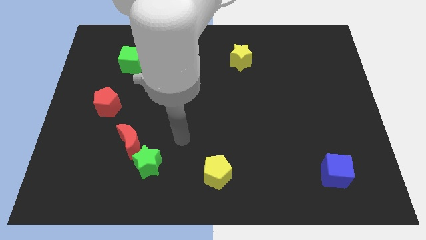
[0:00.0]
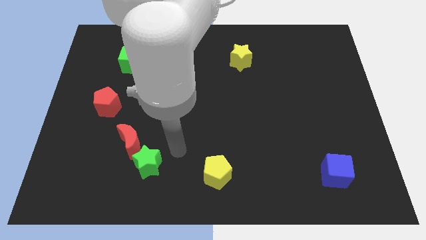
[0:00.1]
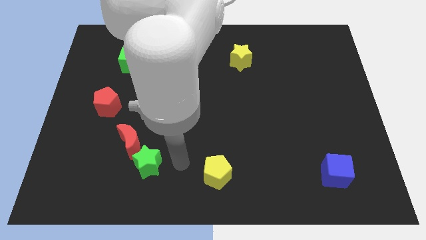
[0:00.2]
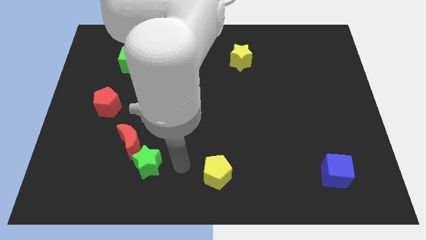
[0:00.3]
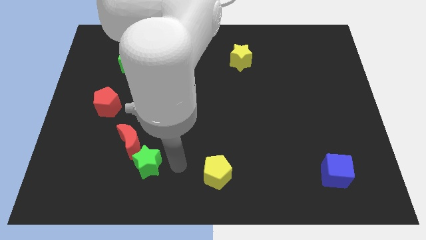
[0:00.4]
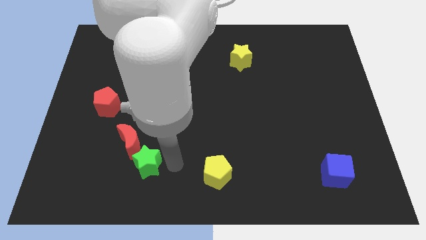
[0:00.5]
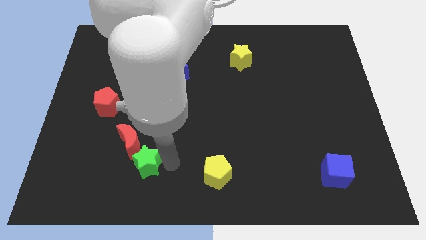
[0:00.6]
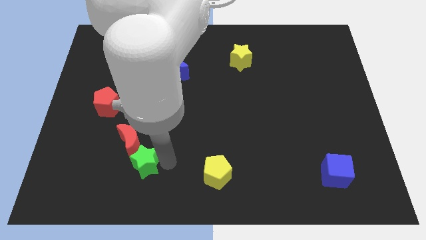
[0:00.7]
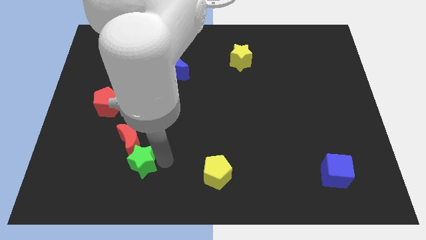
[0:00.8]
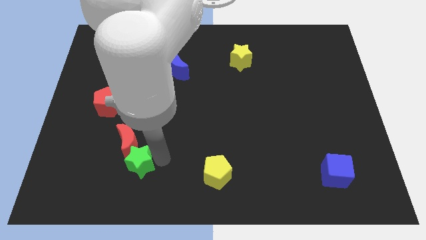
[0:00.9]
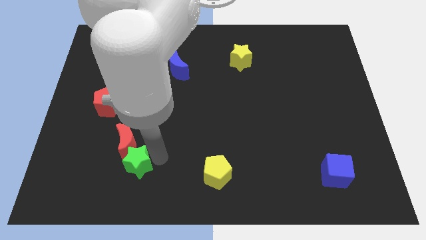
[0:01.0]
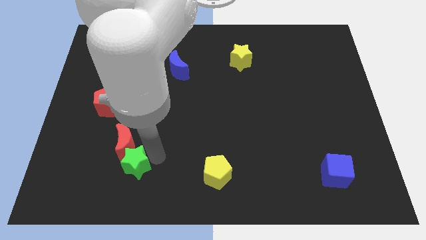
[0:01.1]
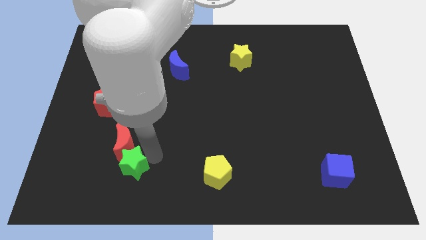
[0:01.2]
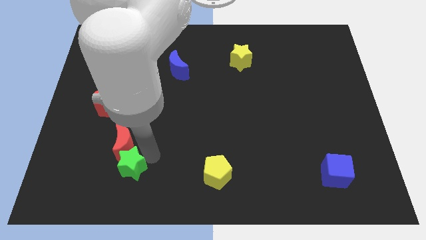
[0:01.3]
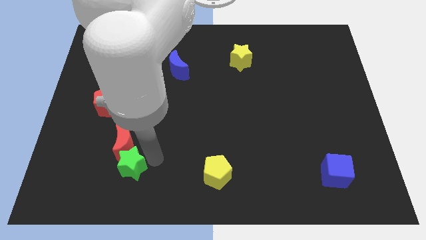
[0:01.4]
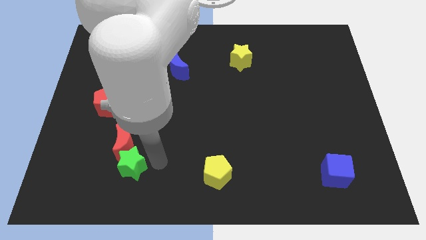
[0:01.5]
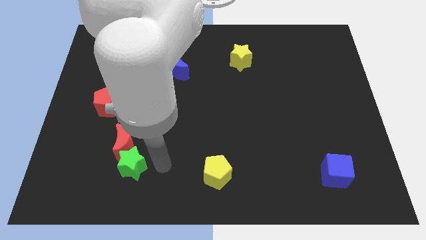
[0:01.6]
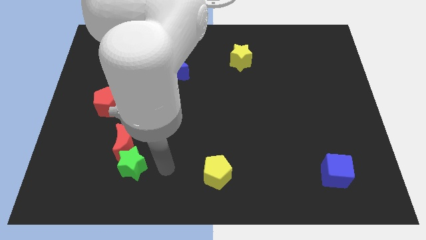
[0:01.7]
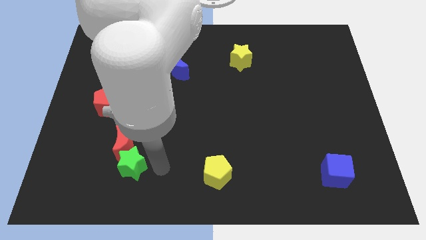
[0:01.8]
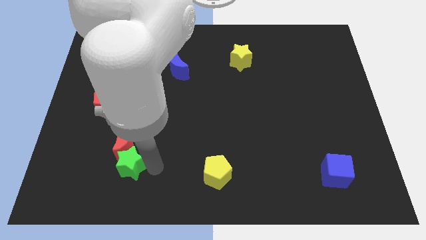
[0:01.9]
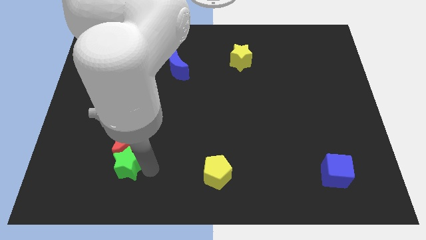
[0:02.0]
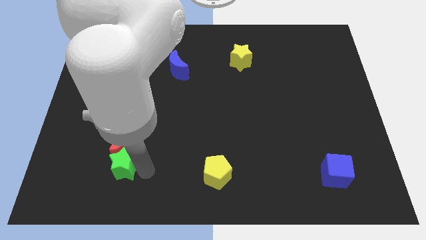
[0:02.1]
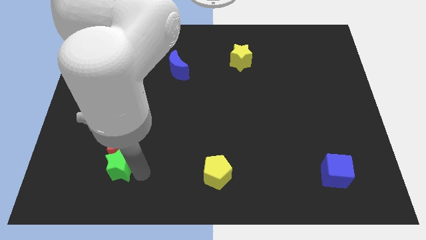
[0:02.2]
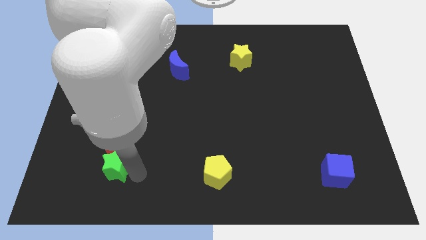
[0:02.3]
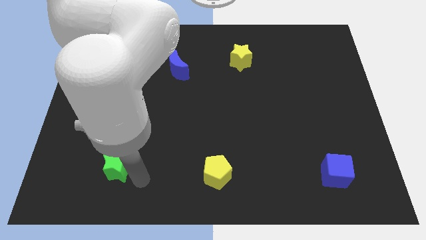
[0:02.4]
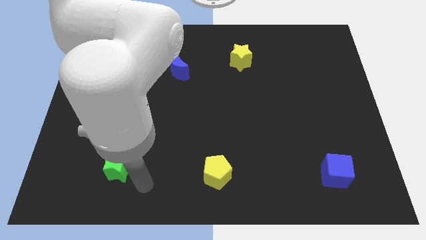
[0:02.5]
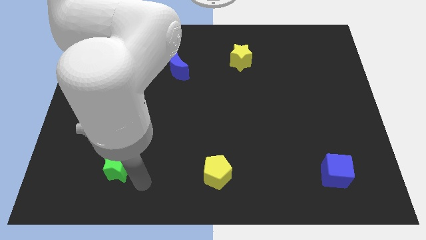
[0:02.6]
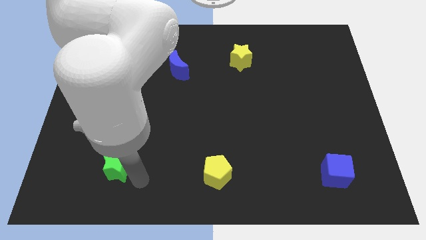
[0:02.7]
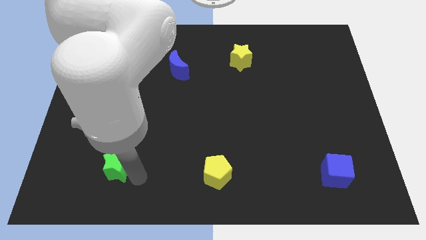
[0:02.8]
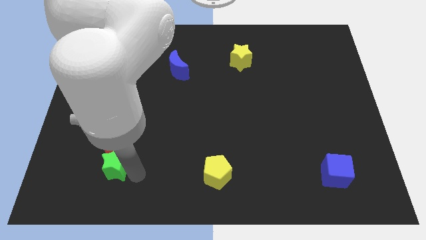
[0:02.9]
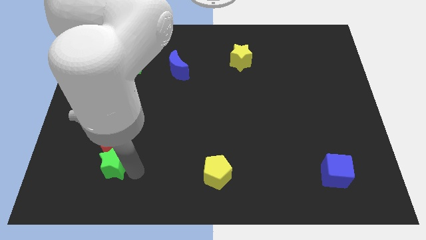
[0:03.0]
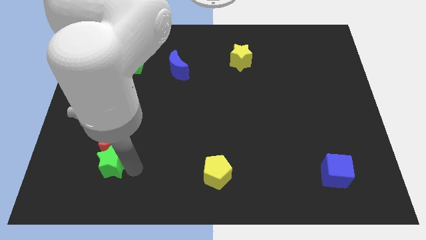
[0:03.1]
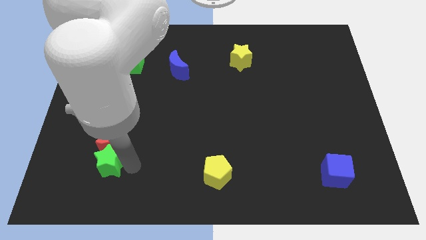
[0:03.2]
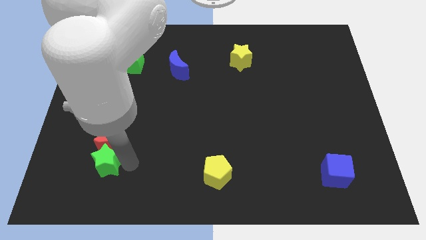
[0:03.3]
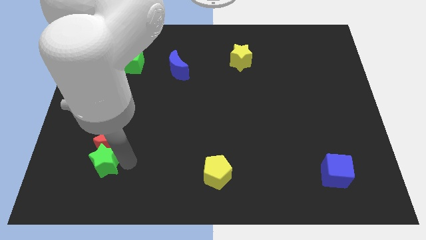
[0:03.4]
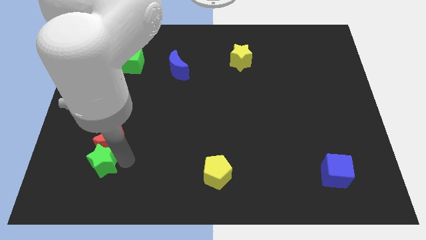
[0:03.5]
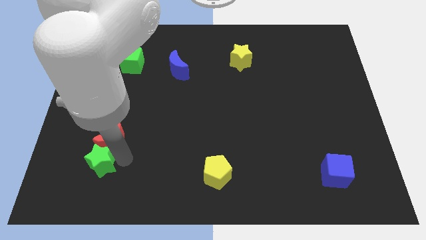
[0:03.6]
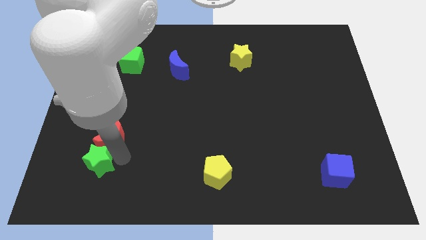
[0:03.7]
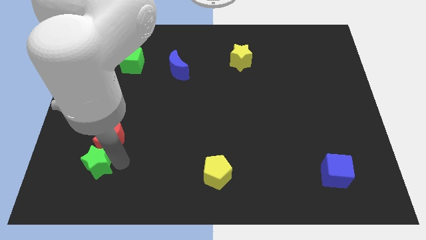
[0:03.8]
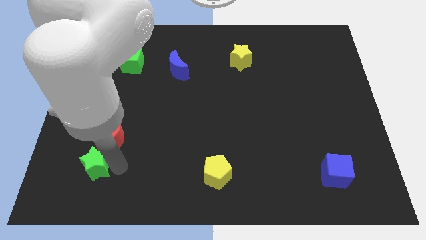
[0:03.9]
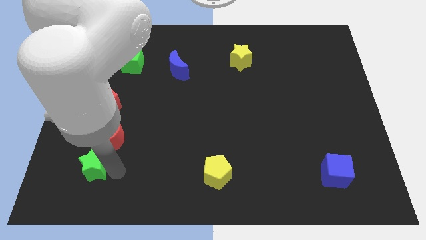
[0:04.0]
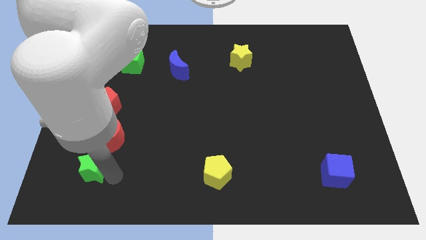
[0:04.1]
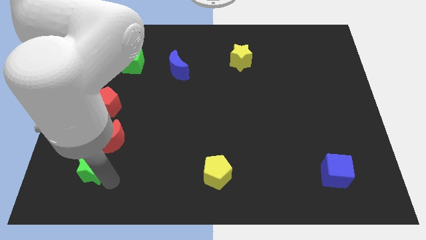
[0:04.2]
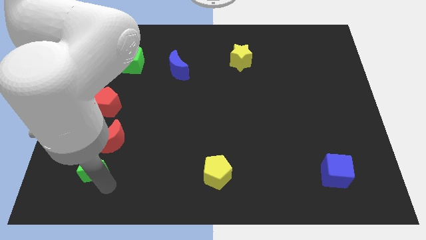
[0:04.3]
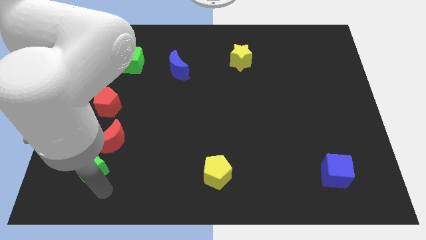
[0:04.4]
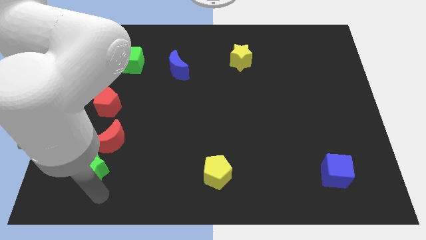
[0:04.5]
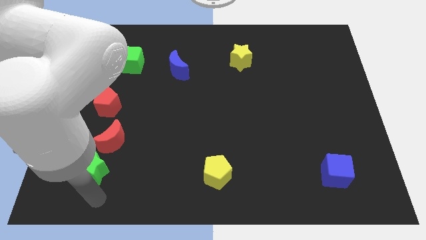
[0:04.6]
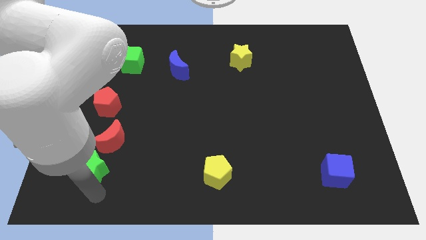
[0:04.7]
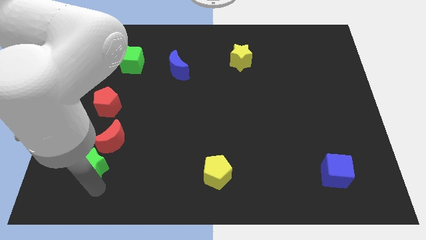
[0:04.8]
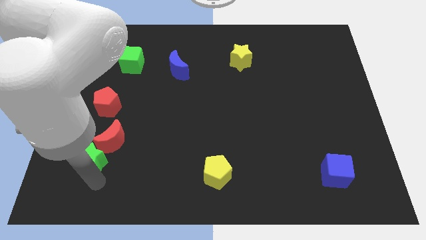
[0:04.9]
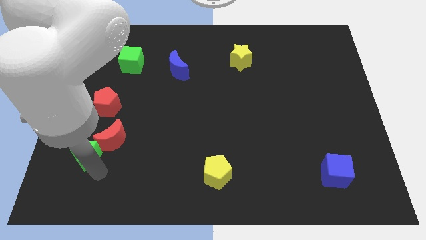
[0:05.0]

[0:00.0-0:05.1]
move the green star left of the red moon

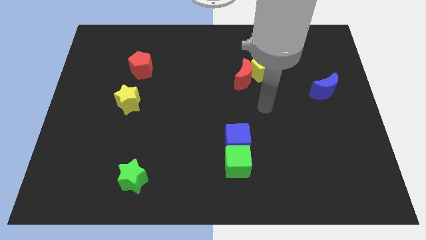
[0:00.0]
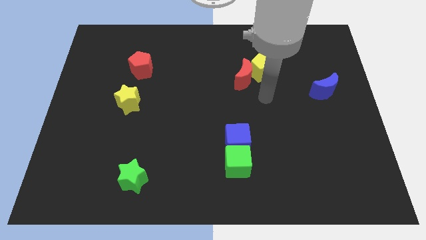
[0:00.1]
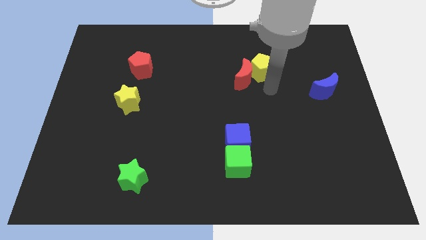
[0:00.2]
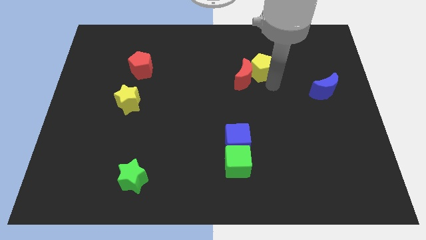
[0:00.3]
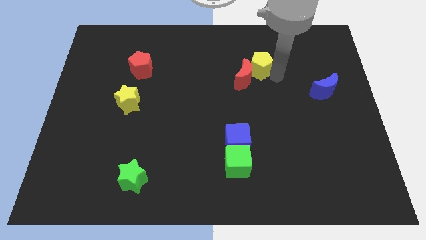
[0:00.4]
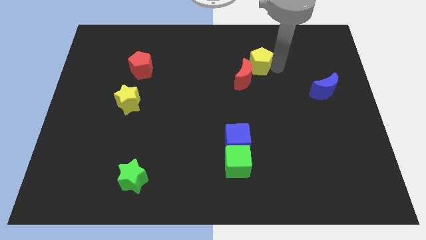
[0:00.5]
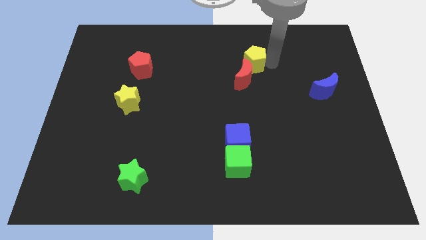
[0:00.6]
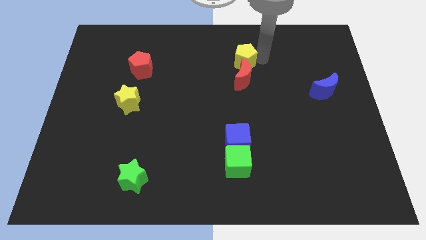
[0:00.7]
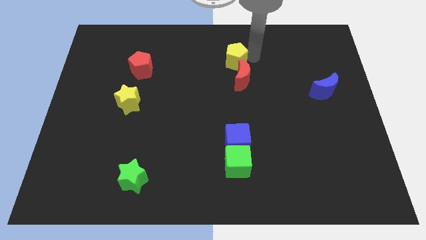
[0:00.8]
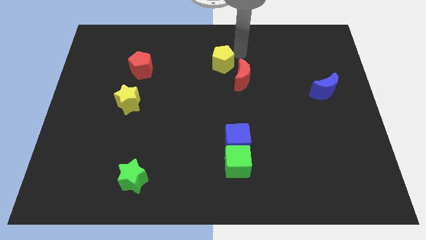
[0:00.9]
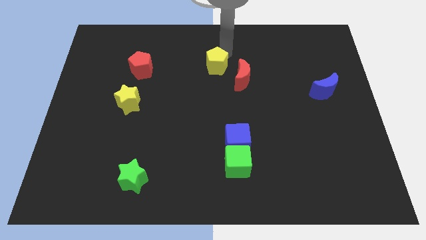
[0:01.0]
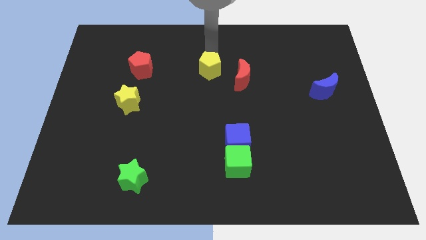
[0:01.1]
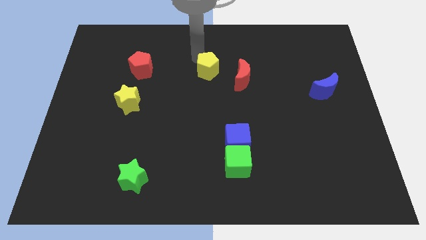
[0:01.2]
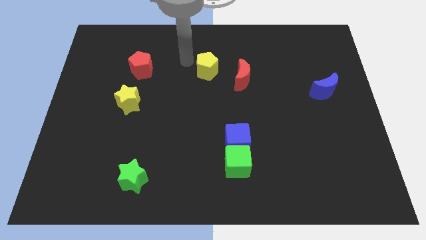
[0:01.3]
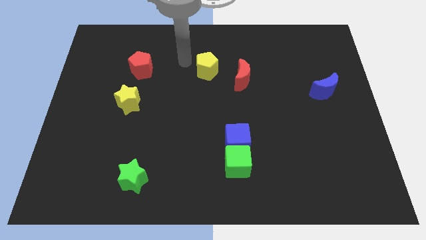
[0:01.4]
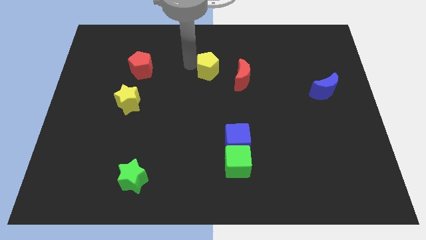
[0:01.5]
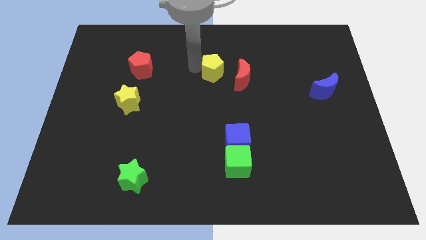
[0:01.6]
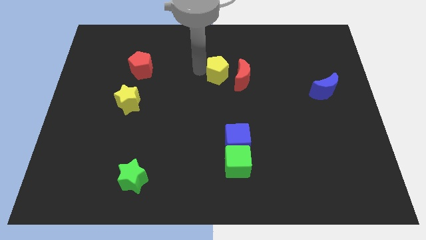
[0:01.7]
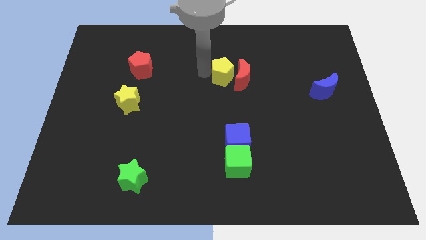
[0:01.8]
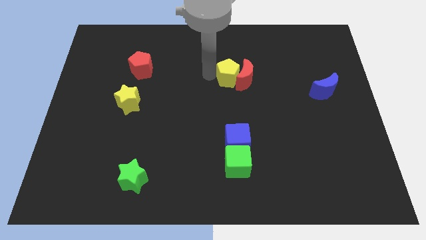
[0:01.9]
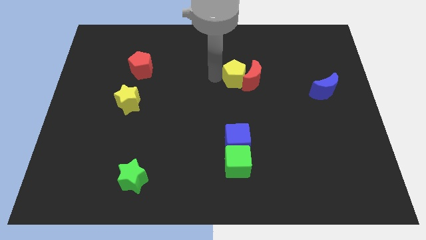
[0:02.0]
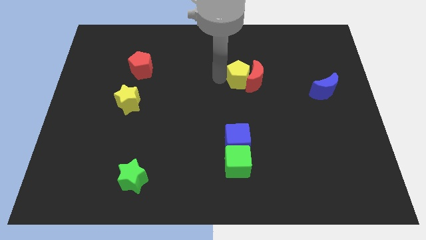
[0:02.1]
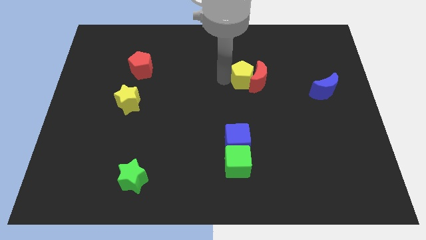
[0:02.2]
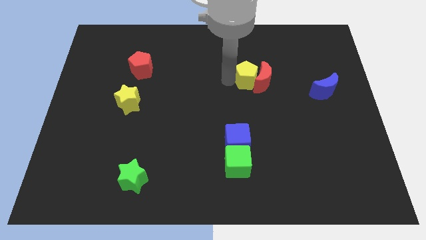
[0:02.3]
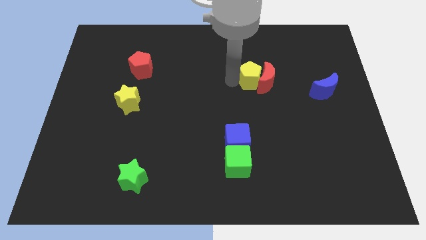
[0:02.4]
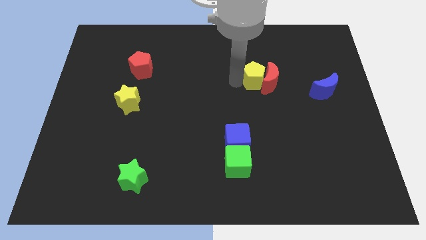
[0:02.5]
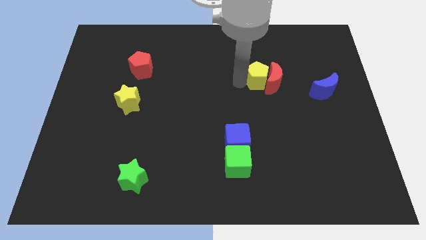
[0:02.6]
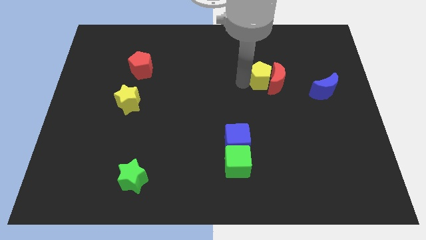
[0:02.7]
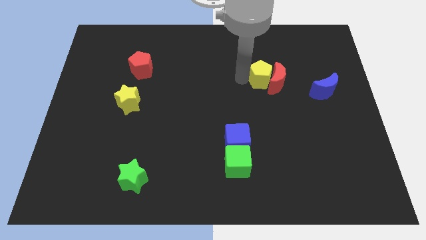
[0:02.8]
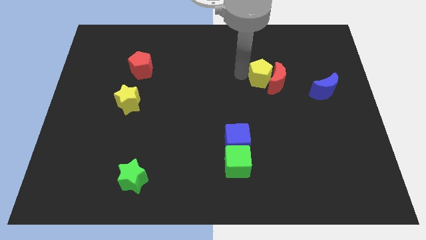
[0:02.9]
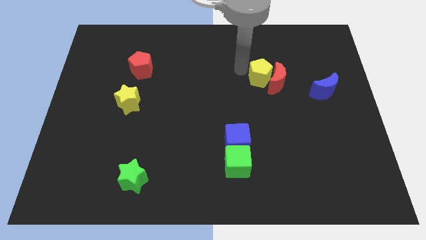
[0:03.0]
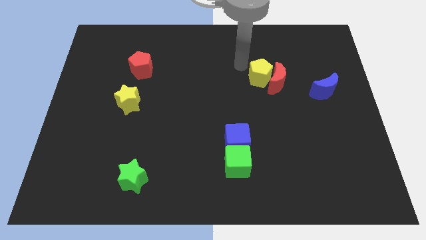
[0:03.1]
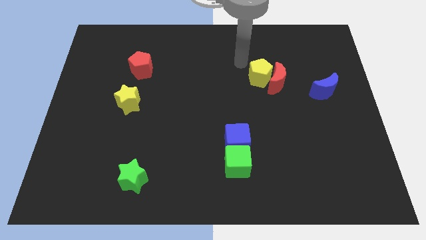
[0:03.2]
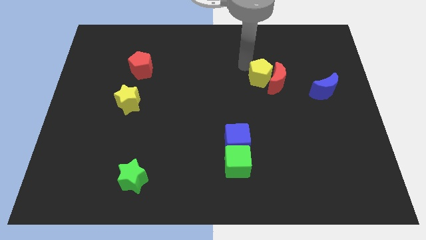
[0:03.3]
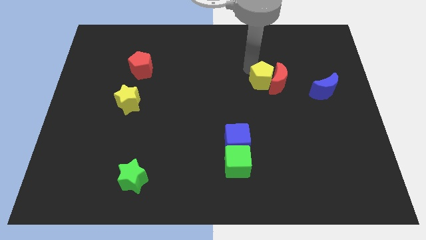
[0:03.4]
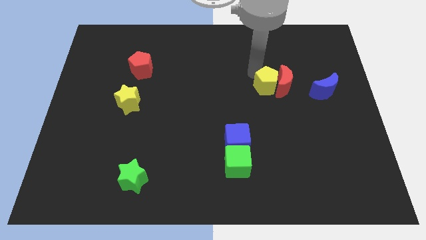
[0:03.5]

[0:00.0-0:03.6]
slide the yellow pentagon just left of the blue moon
